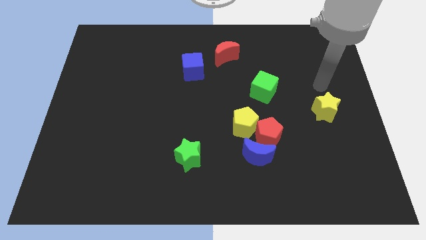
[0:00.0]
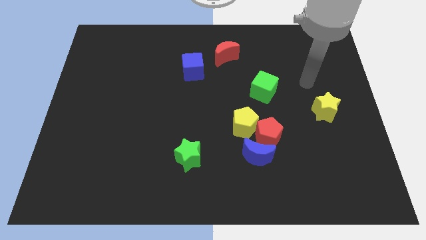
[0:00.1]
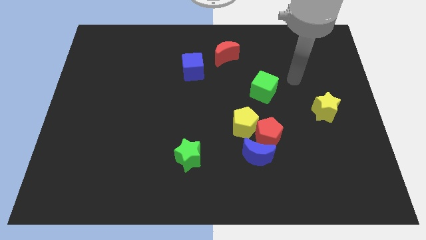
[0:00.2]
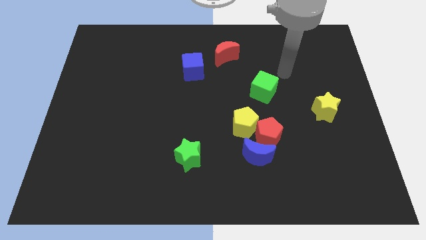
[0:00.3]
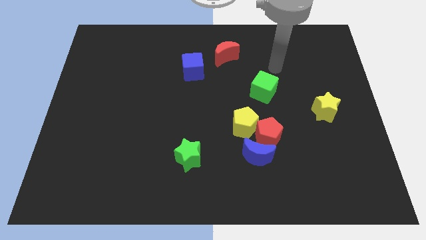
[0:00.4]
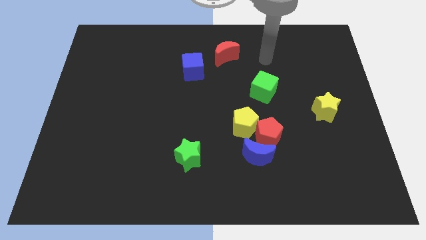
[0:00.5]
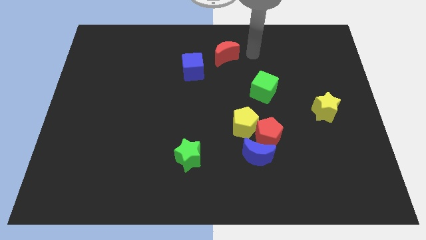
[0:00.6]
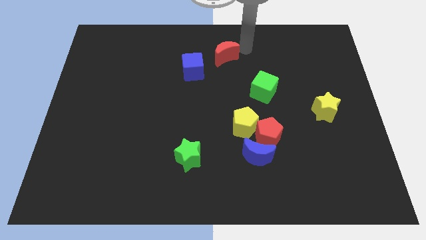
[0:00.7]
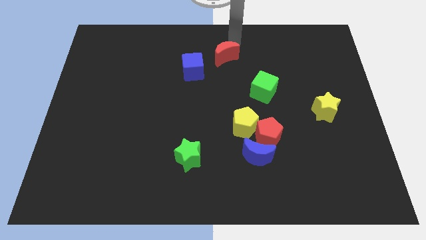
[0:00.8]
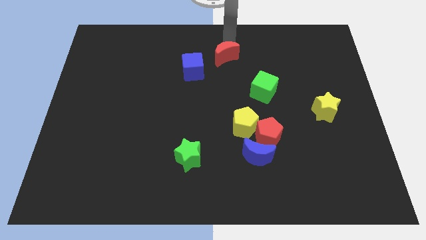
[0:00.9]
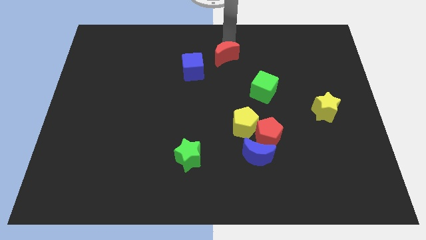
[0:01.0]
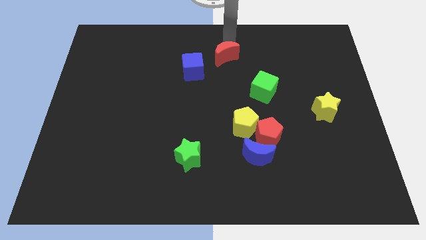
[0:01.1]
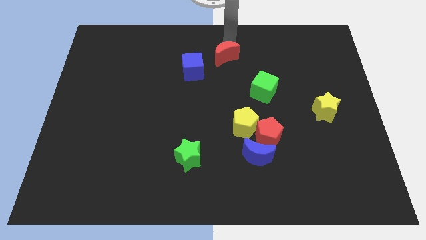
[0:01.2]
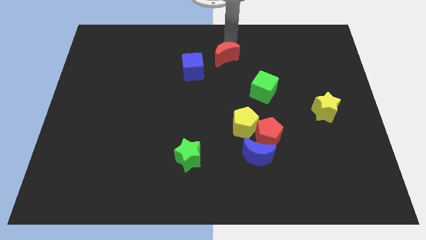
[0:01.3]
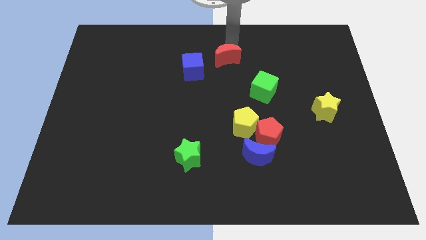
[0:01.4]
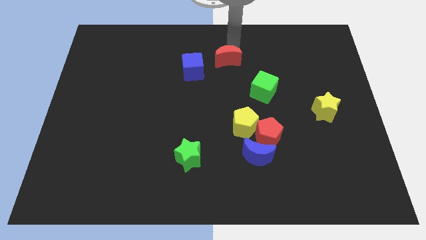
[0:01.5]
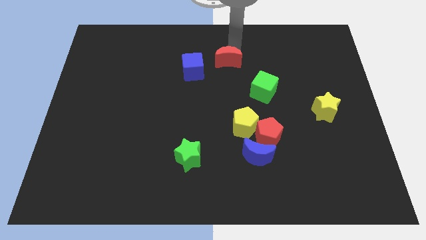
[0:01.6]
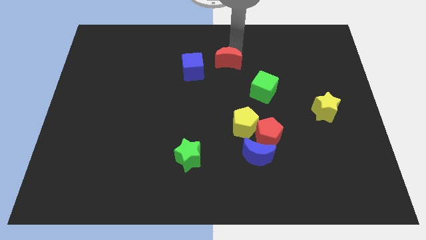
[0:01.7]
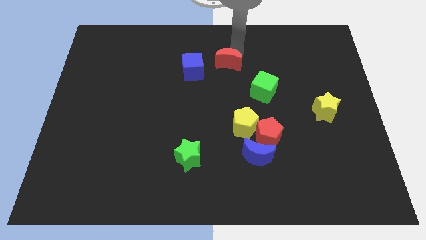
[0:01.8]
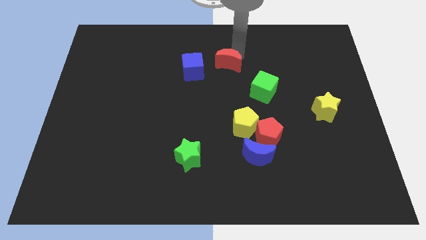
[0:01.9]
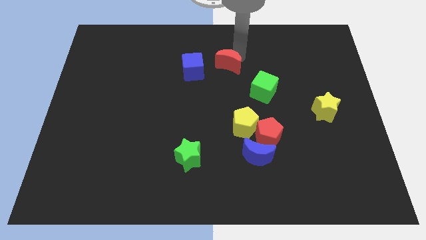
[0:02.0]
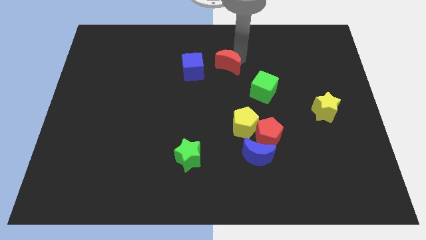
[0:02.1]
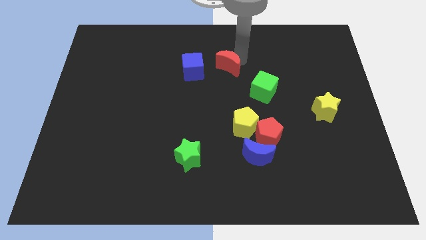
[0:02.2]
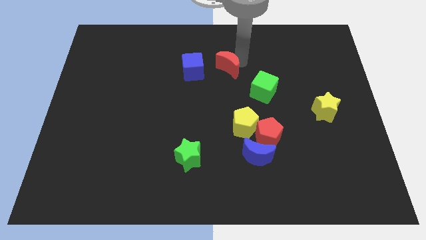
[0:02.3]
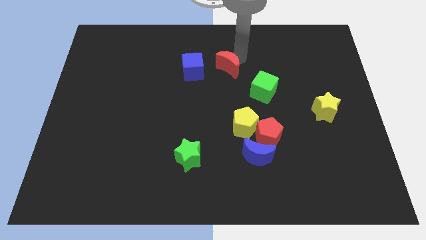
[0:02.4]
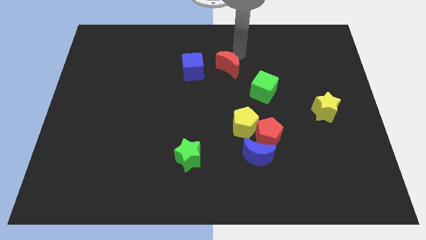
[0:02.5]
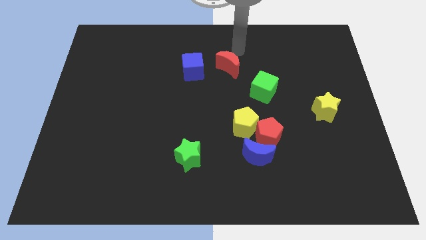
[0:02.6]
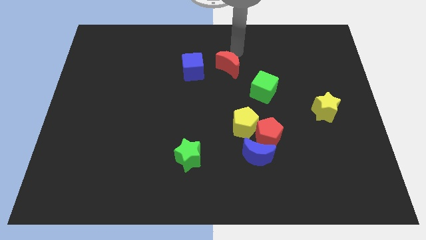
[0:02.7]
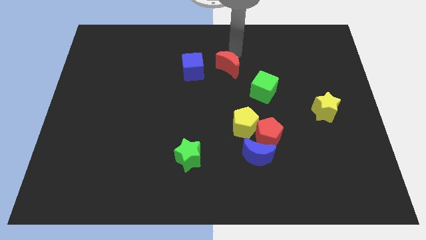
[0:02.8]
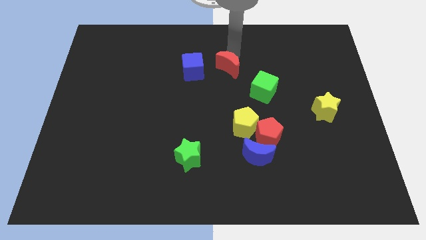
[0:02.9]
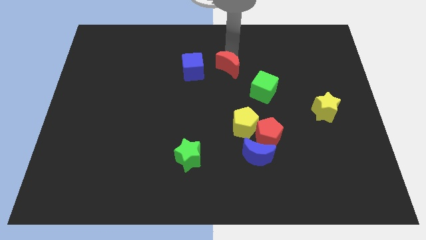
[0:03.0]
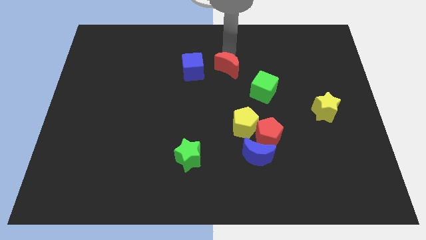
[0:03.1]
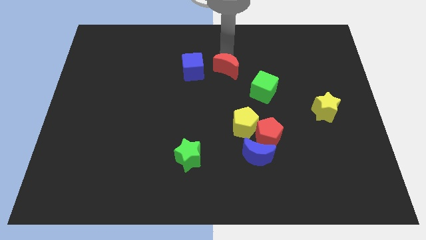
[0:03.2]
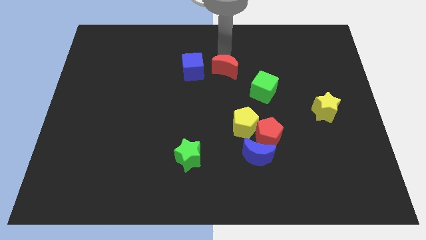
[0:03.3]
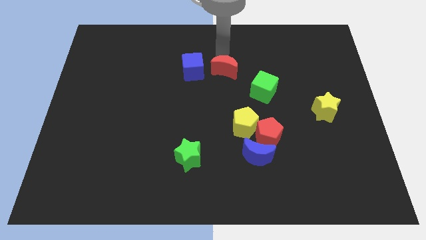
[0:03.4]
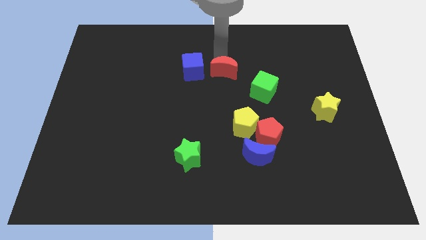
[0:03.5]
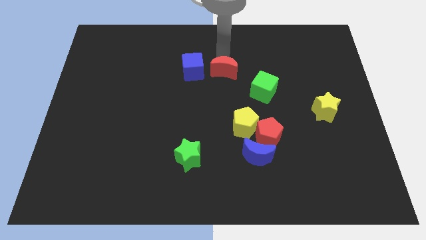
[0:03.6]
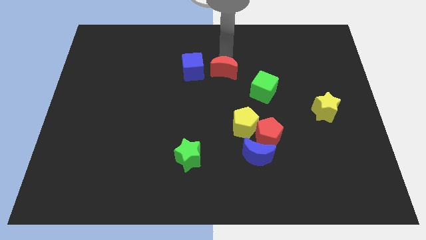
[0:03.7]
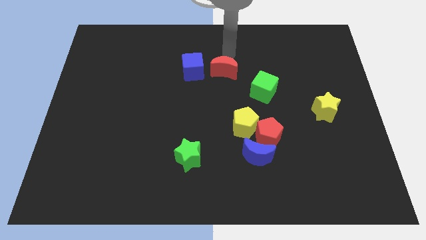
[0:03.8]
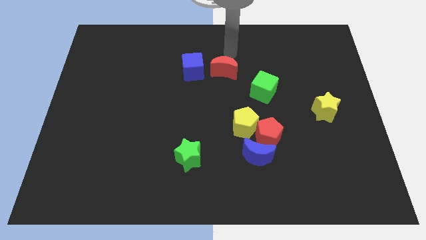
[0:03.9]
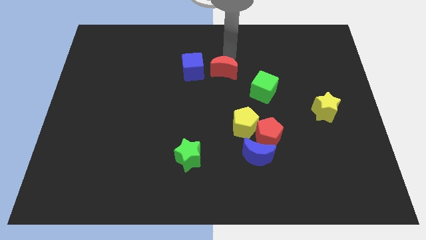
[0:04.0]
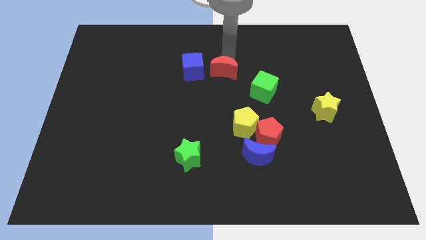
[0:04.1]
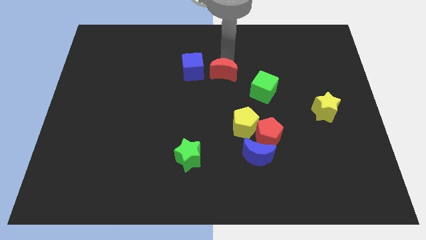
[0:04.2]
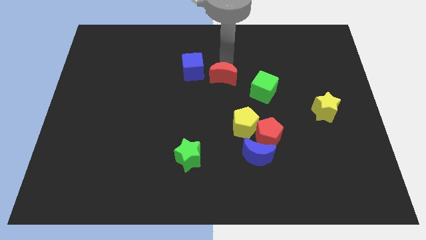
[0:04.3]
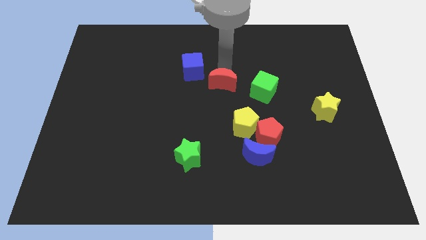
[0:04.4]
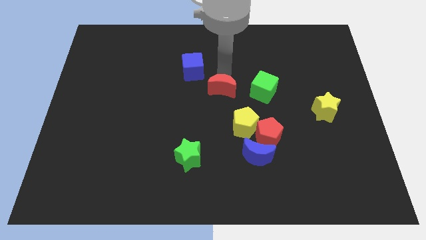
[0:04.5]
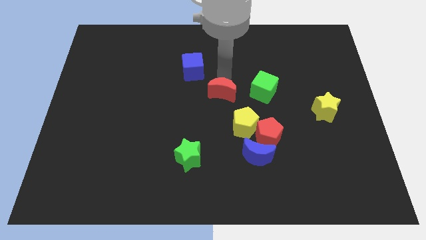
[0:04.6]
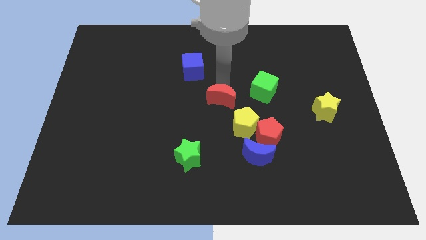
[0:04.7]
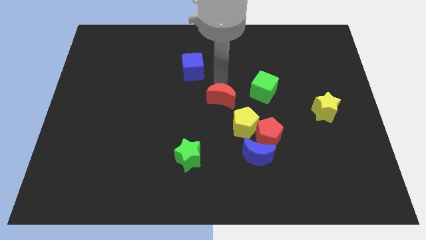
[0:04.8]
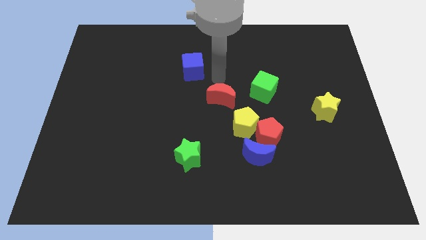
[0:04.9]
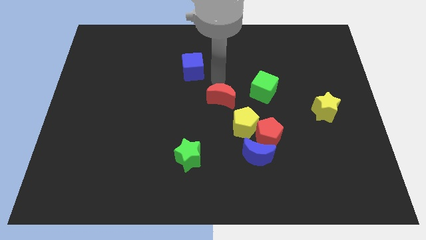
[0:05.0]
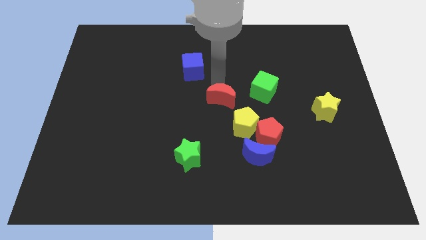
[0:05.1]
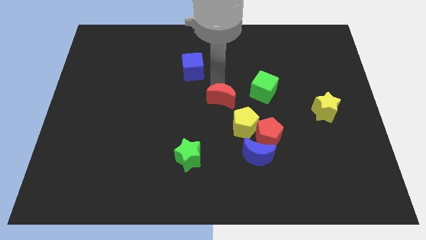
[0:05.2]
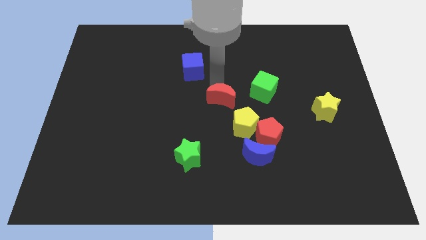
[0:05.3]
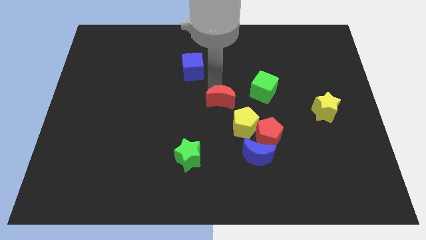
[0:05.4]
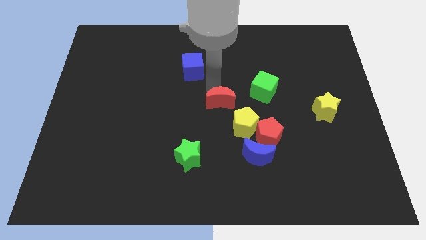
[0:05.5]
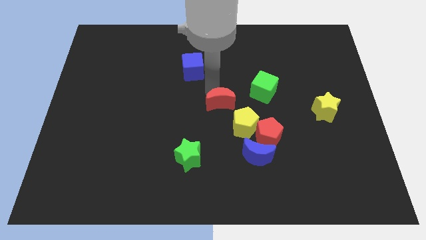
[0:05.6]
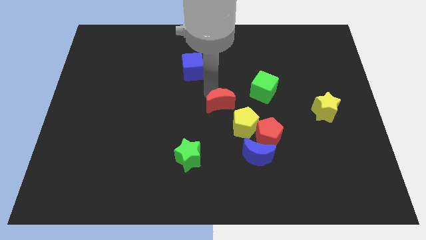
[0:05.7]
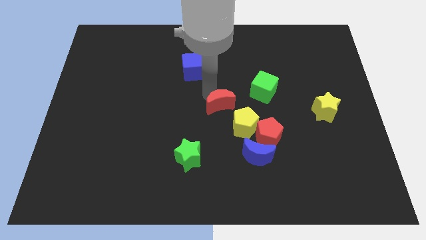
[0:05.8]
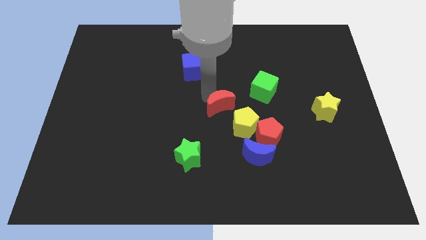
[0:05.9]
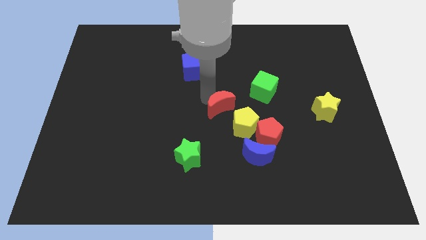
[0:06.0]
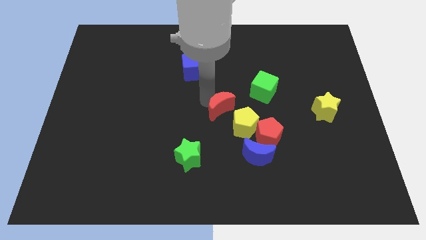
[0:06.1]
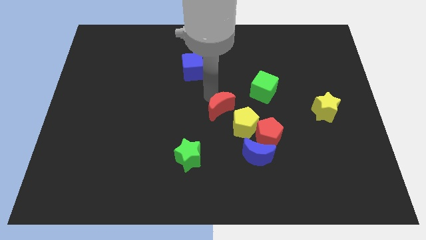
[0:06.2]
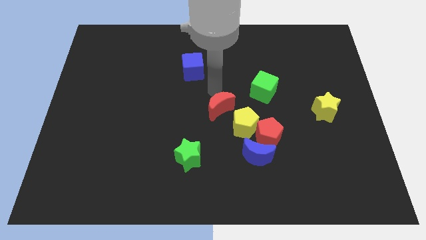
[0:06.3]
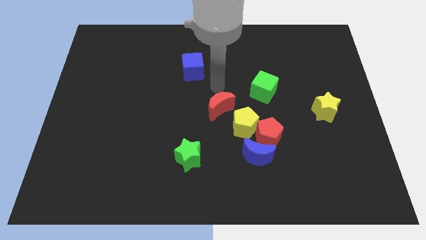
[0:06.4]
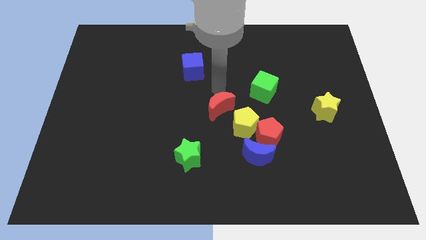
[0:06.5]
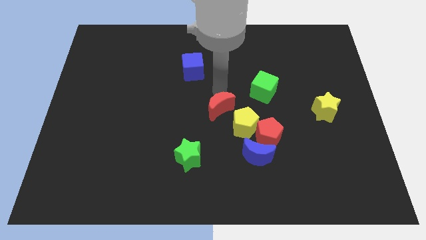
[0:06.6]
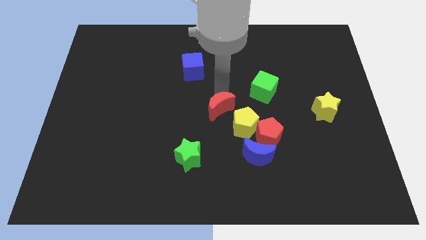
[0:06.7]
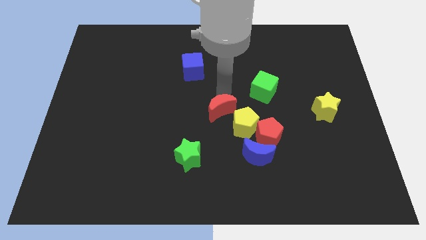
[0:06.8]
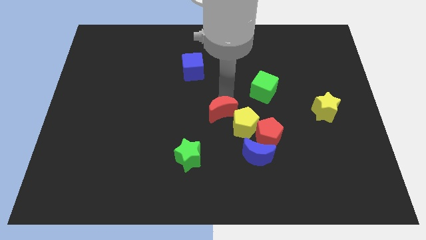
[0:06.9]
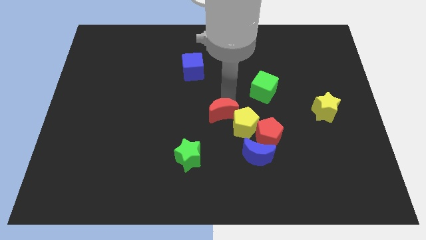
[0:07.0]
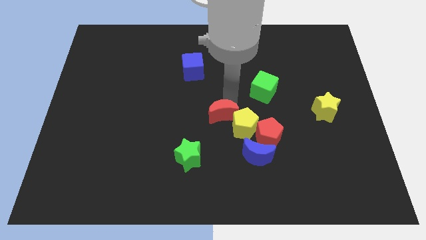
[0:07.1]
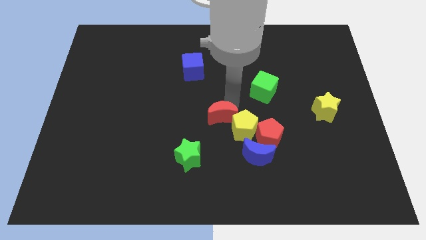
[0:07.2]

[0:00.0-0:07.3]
slide the red moon down

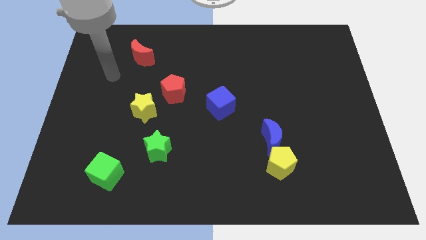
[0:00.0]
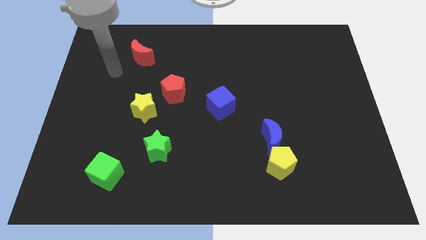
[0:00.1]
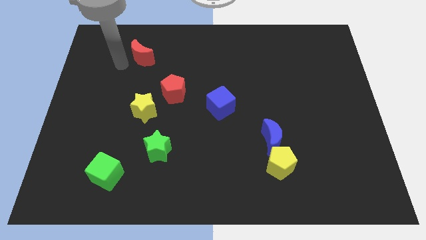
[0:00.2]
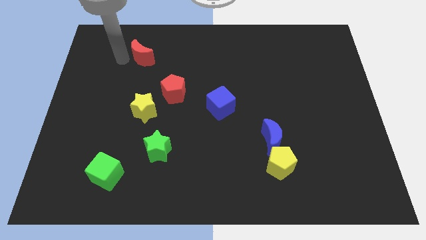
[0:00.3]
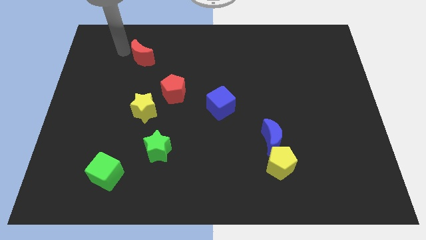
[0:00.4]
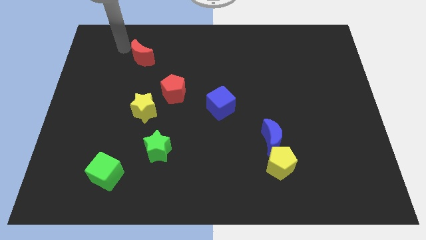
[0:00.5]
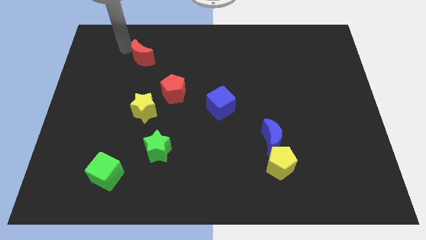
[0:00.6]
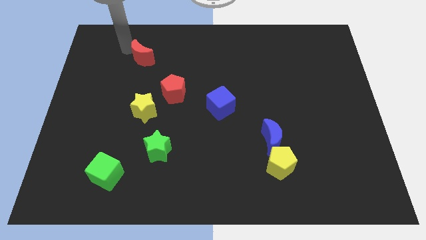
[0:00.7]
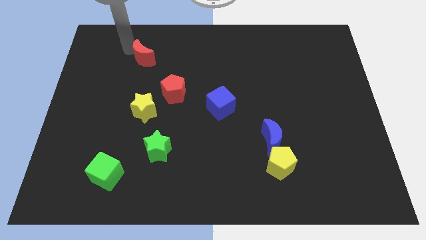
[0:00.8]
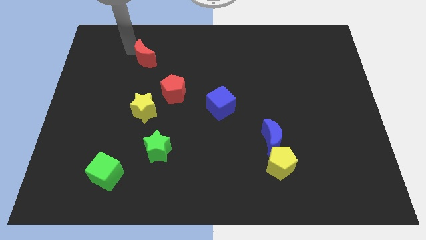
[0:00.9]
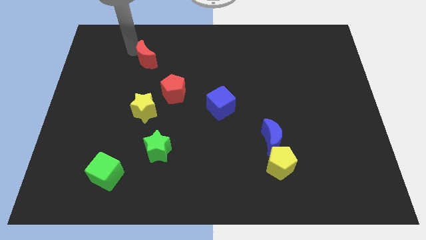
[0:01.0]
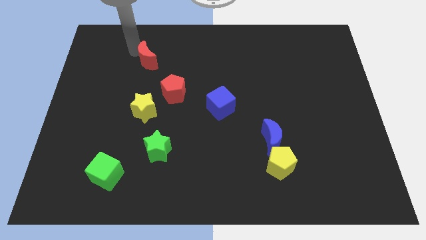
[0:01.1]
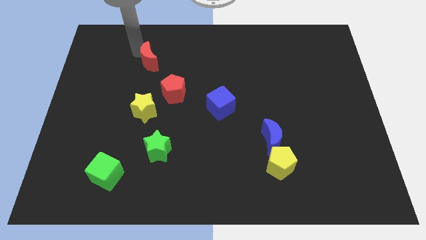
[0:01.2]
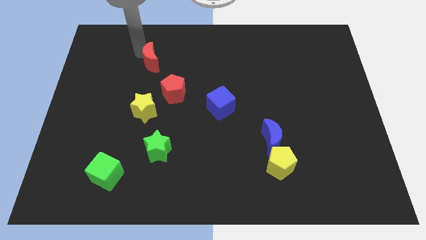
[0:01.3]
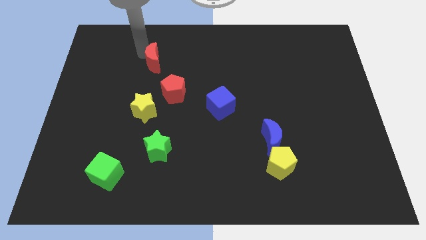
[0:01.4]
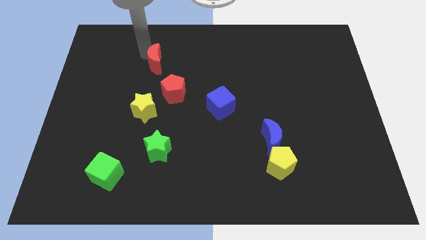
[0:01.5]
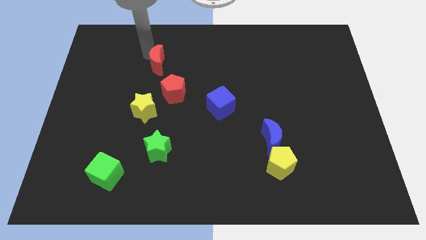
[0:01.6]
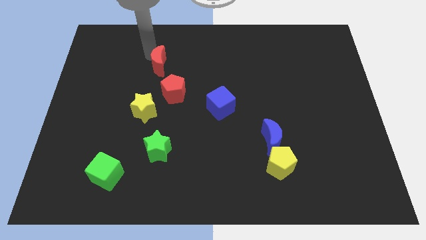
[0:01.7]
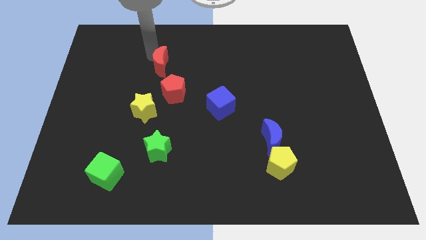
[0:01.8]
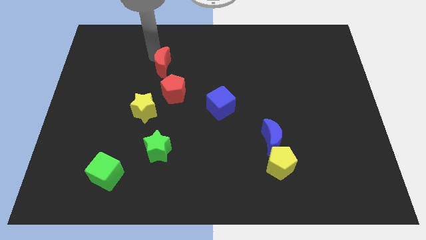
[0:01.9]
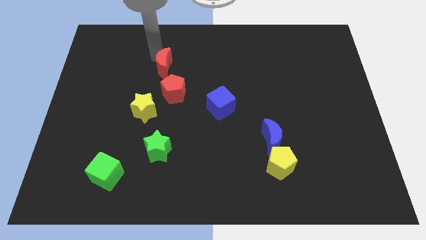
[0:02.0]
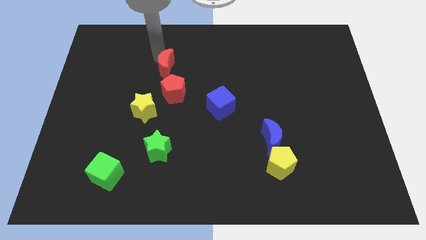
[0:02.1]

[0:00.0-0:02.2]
slightly move the red moon down and to the right diagonally
